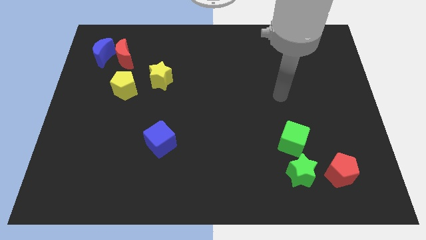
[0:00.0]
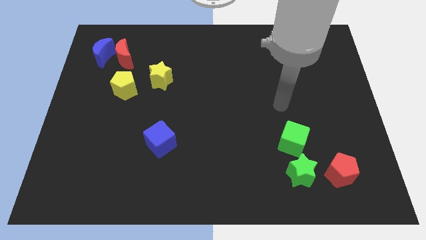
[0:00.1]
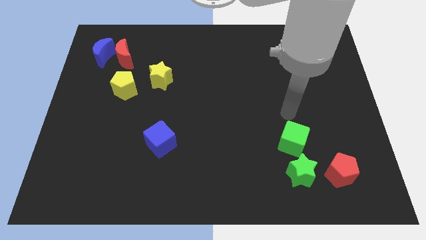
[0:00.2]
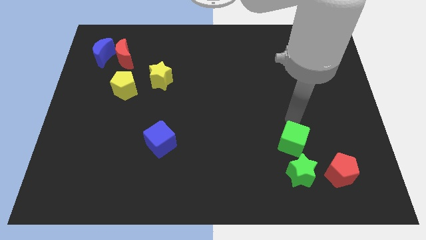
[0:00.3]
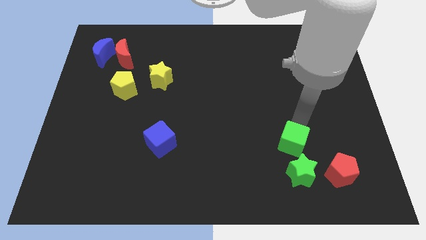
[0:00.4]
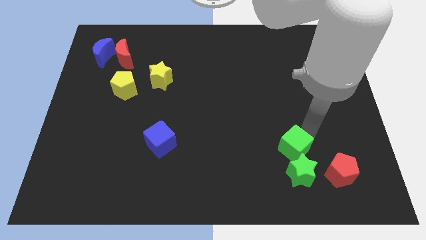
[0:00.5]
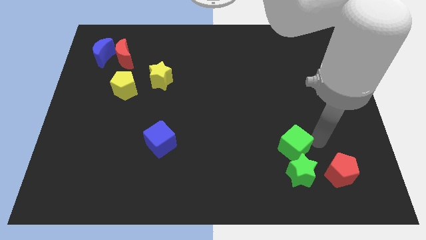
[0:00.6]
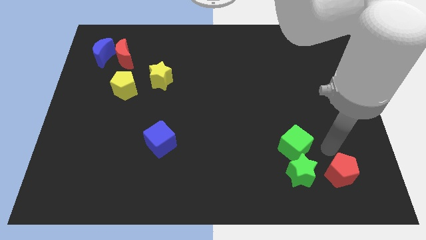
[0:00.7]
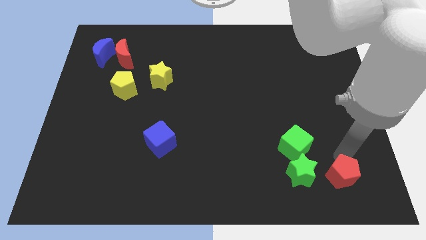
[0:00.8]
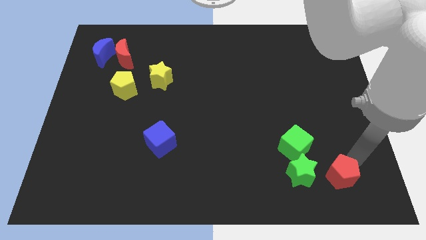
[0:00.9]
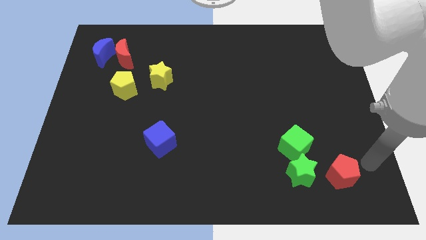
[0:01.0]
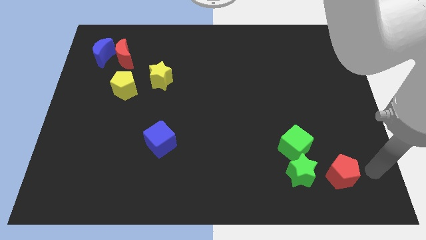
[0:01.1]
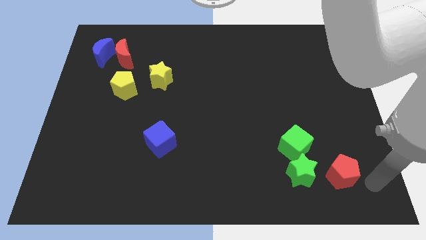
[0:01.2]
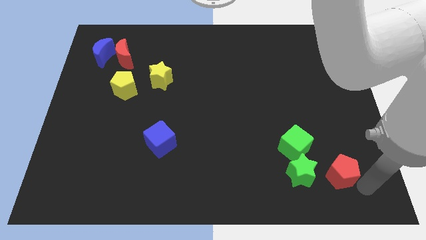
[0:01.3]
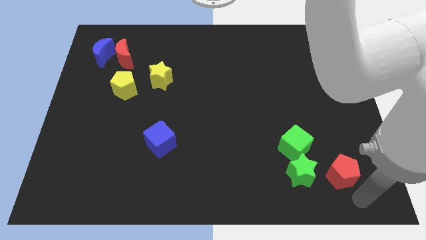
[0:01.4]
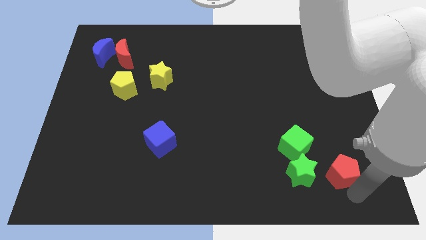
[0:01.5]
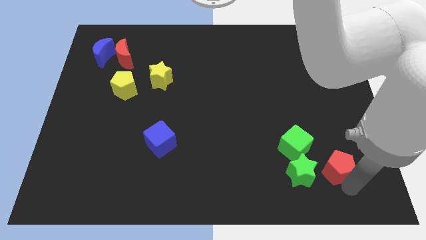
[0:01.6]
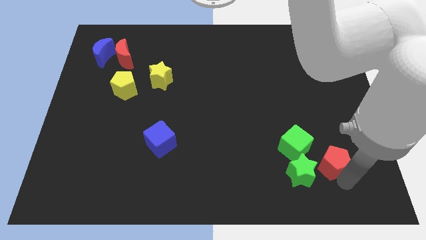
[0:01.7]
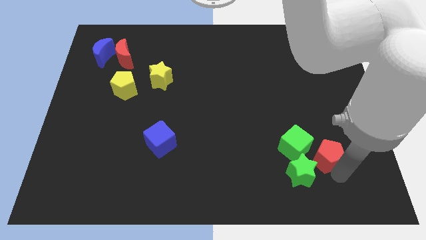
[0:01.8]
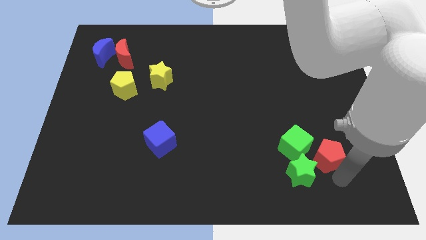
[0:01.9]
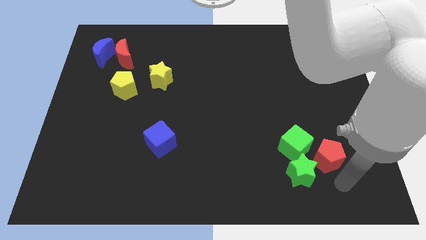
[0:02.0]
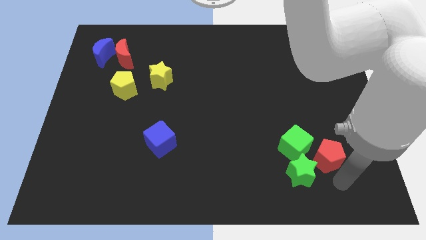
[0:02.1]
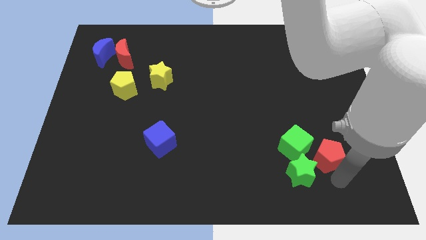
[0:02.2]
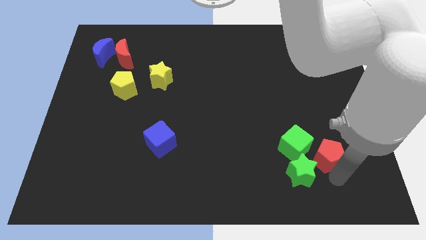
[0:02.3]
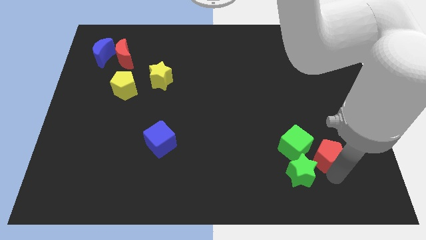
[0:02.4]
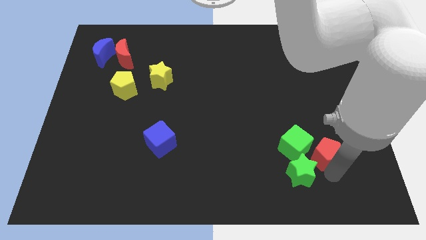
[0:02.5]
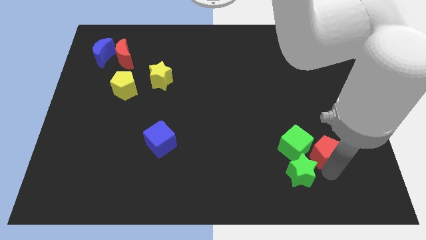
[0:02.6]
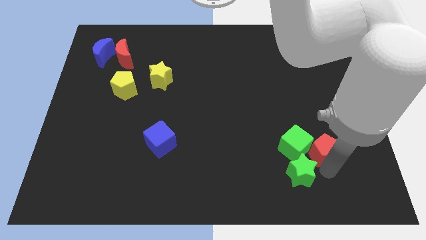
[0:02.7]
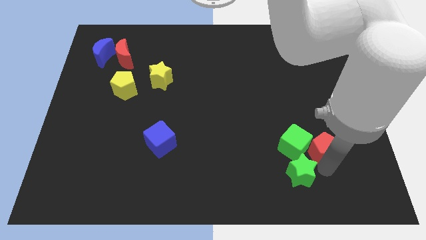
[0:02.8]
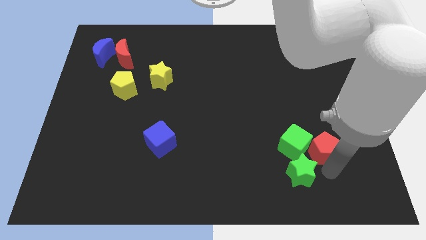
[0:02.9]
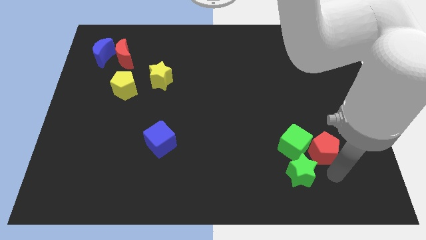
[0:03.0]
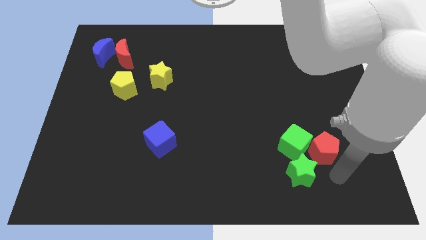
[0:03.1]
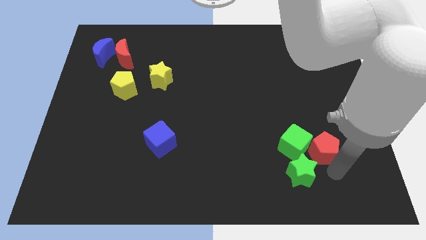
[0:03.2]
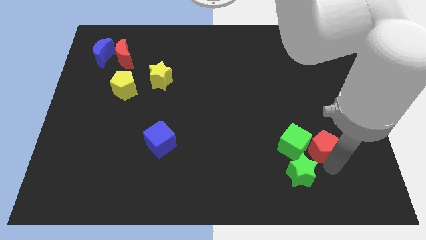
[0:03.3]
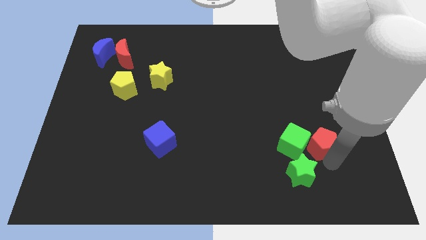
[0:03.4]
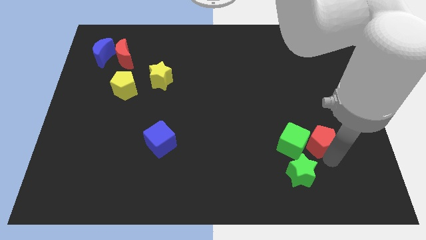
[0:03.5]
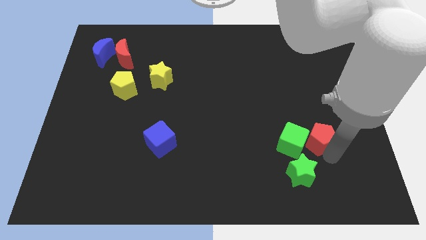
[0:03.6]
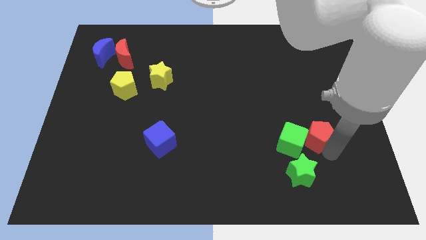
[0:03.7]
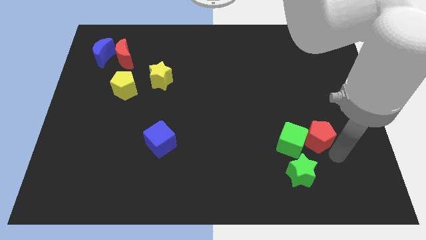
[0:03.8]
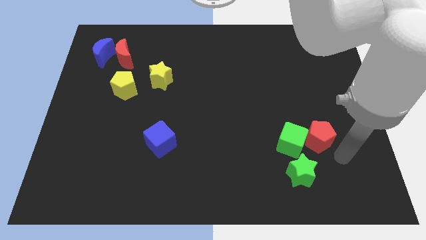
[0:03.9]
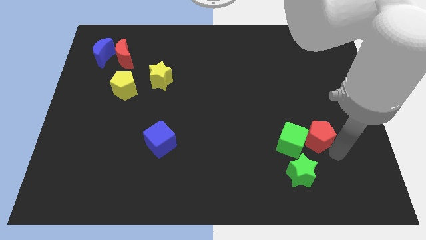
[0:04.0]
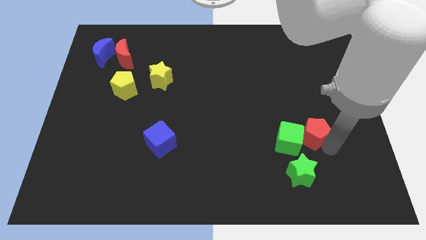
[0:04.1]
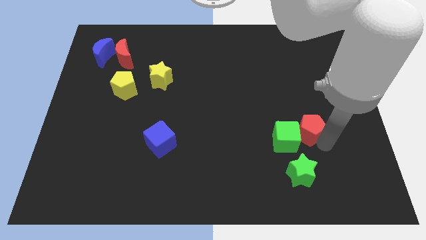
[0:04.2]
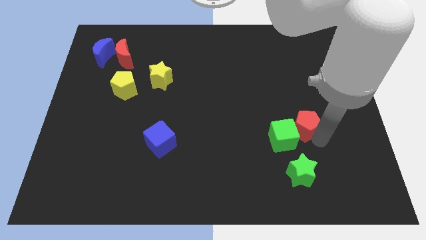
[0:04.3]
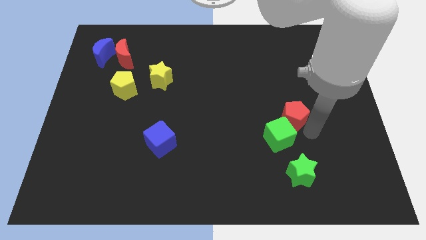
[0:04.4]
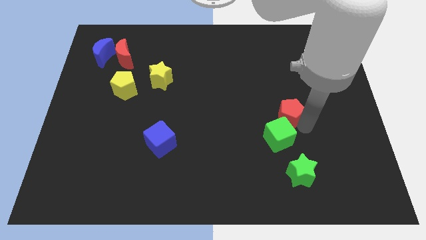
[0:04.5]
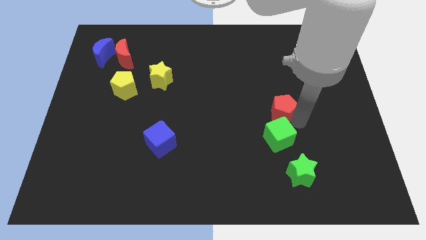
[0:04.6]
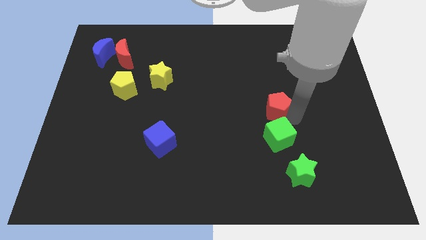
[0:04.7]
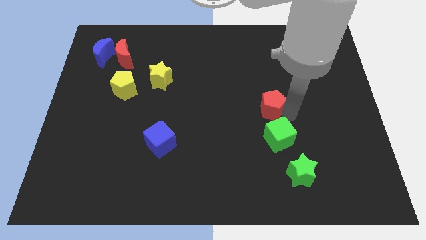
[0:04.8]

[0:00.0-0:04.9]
move the red pentagon diagonally upwards and to the left

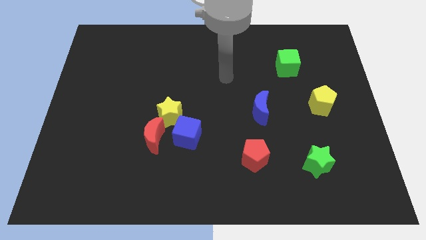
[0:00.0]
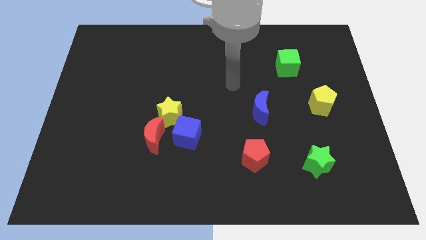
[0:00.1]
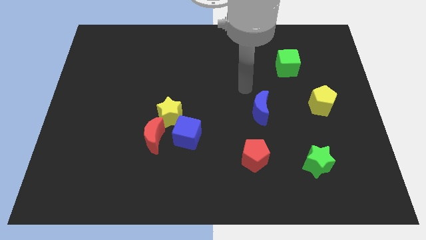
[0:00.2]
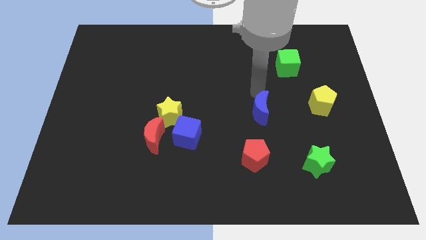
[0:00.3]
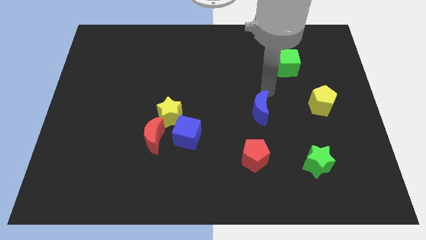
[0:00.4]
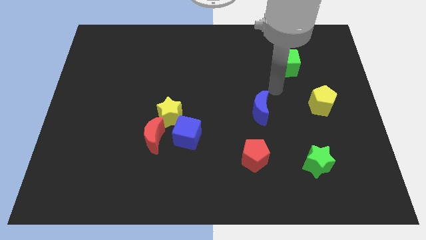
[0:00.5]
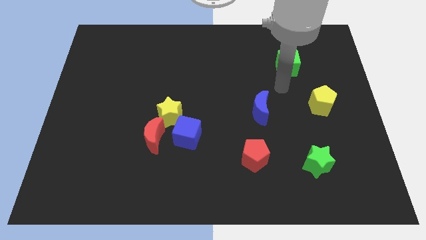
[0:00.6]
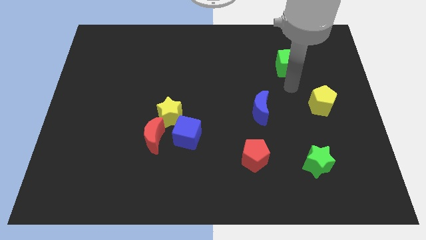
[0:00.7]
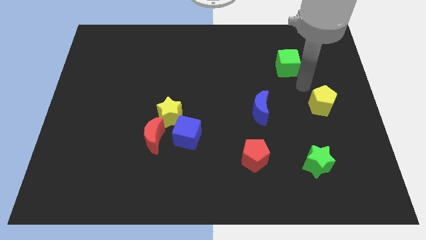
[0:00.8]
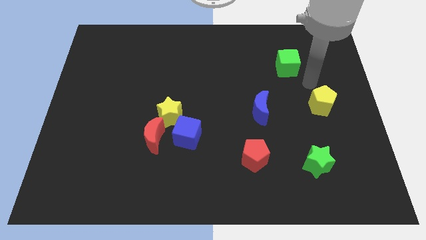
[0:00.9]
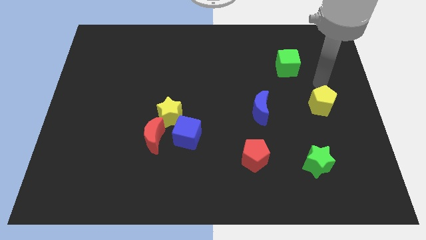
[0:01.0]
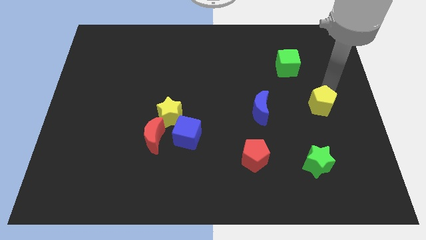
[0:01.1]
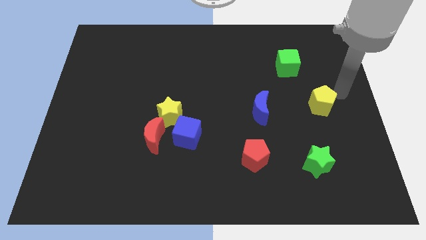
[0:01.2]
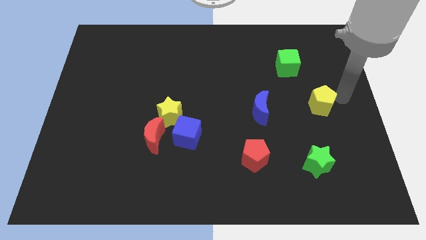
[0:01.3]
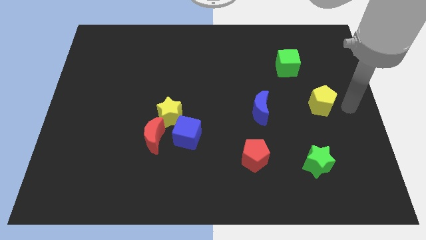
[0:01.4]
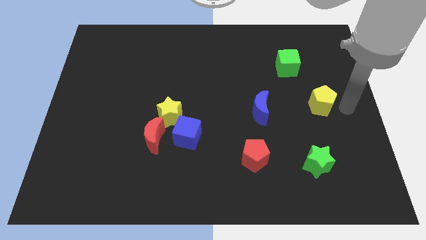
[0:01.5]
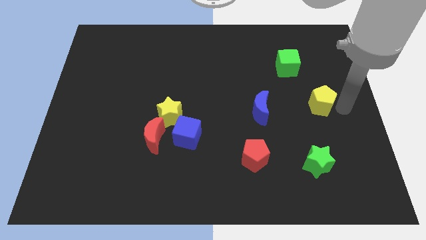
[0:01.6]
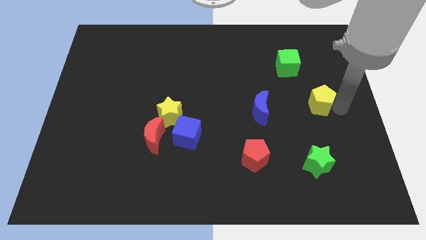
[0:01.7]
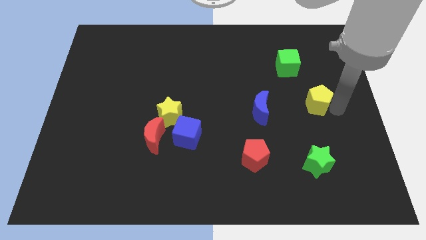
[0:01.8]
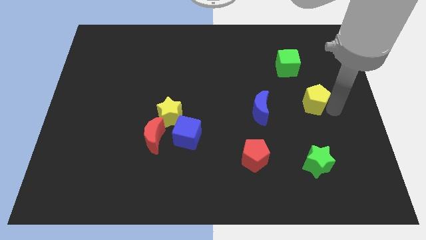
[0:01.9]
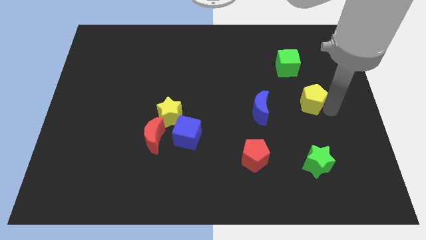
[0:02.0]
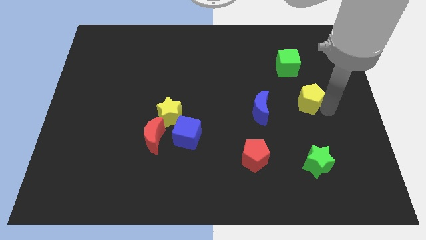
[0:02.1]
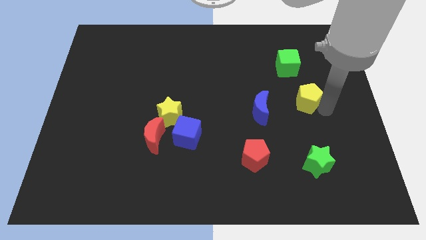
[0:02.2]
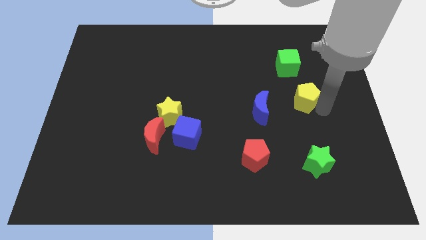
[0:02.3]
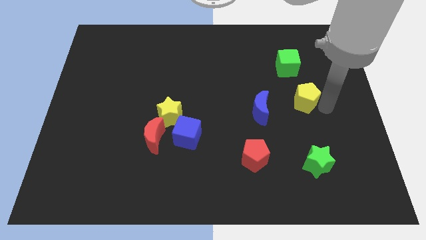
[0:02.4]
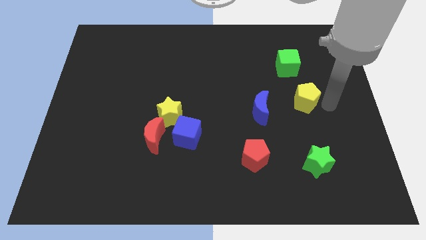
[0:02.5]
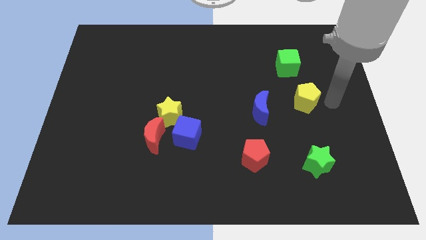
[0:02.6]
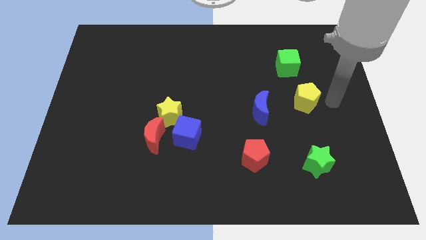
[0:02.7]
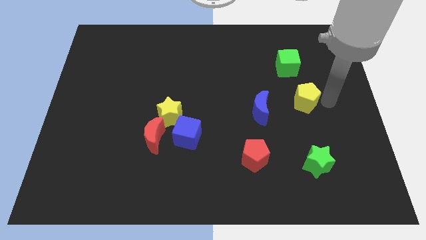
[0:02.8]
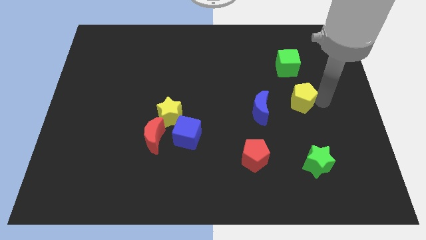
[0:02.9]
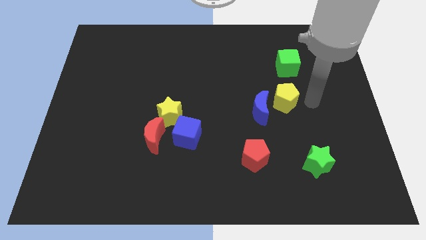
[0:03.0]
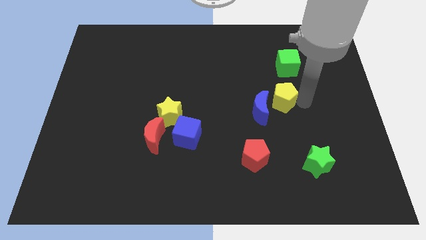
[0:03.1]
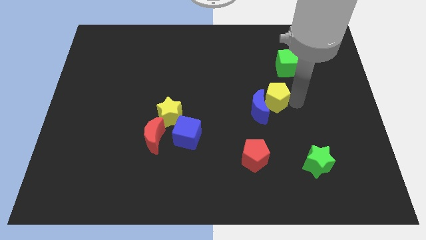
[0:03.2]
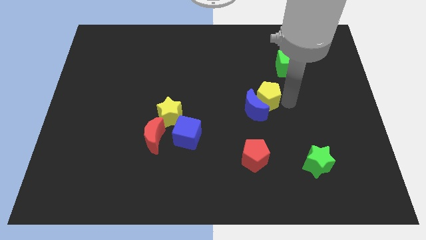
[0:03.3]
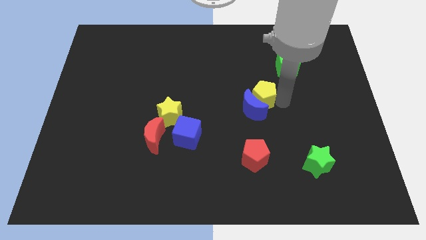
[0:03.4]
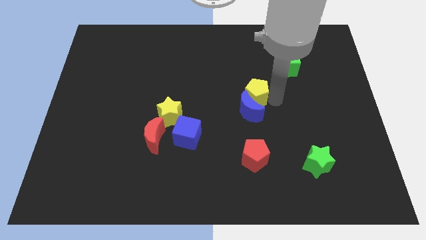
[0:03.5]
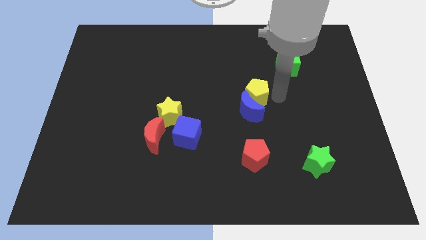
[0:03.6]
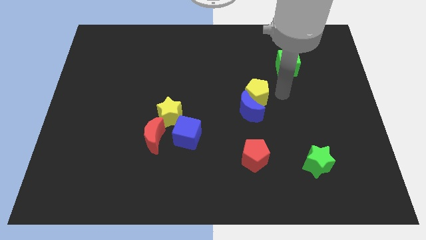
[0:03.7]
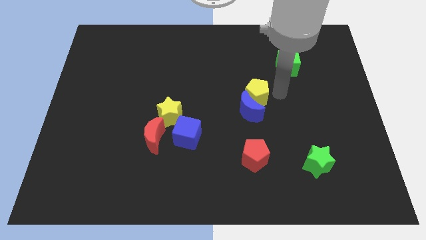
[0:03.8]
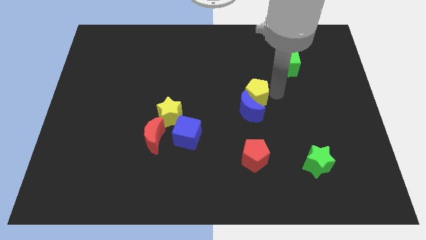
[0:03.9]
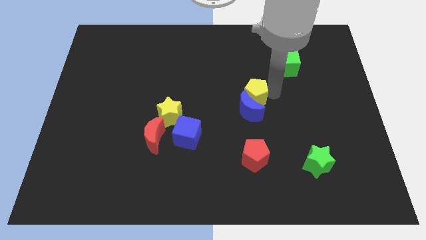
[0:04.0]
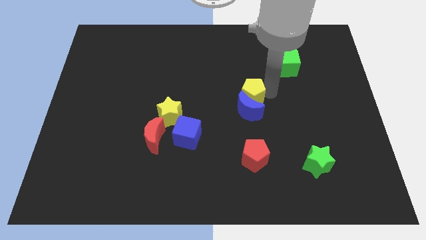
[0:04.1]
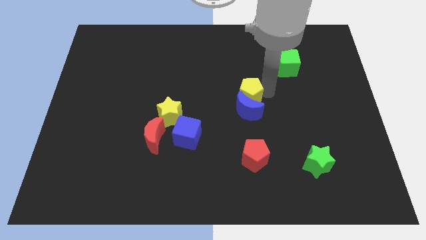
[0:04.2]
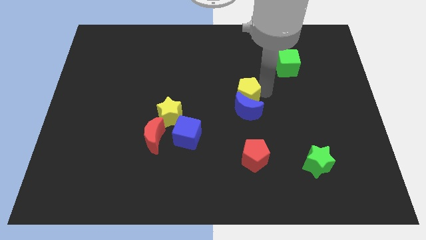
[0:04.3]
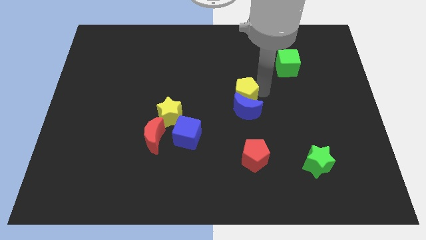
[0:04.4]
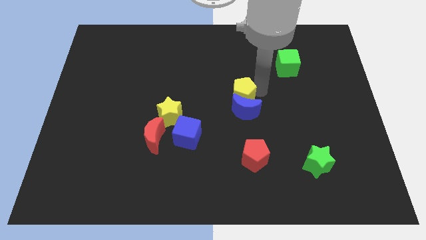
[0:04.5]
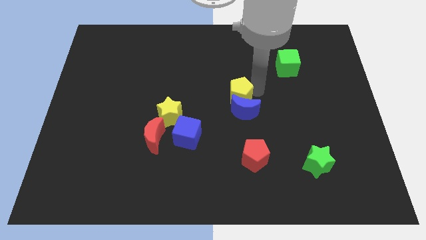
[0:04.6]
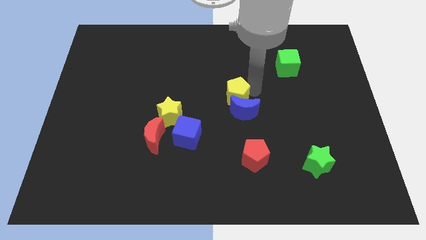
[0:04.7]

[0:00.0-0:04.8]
push the yellow pentagon to the left
